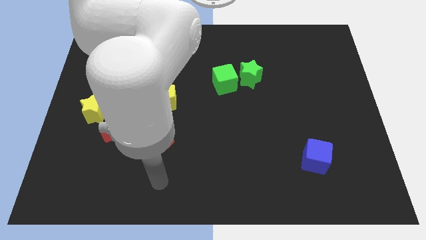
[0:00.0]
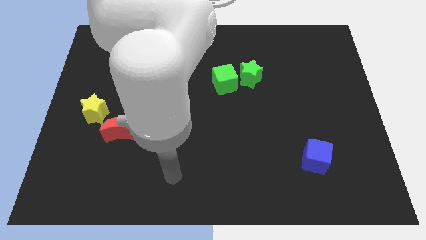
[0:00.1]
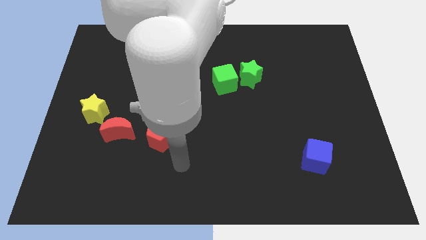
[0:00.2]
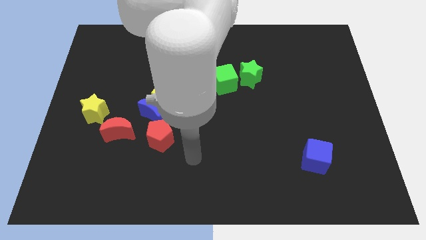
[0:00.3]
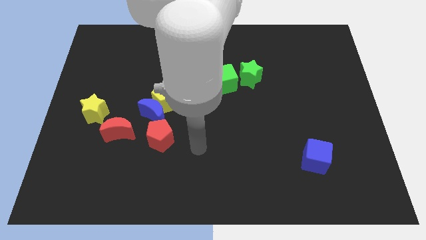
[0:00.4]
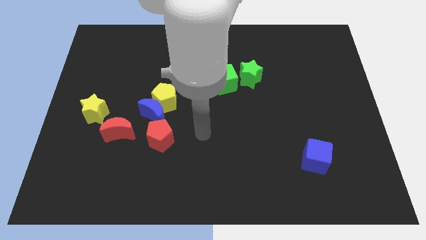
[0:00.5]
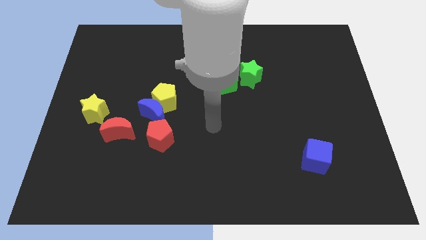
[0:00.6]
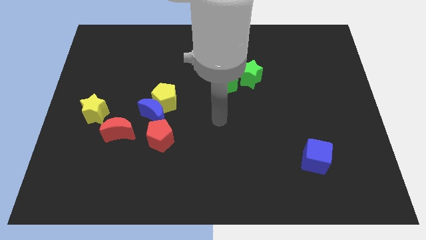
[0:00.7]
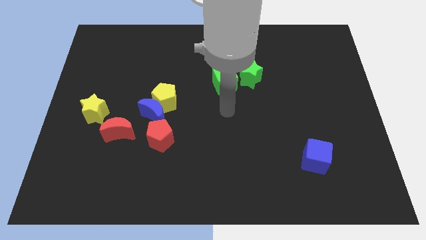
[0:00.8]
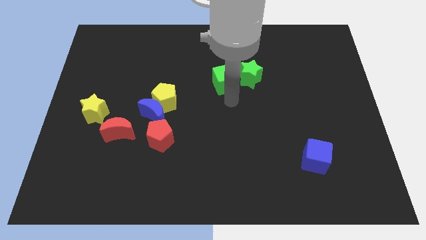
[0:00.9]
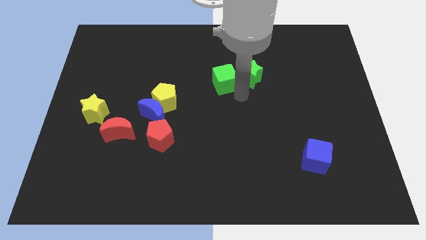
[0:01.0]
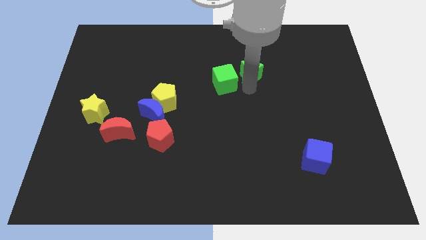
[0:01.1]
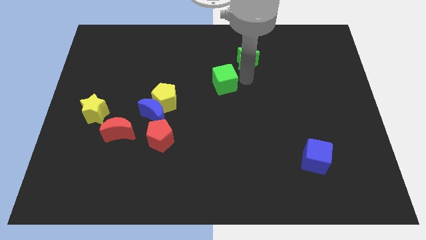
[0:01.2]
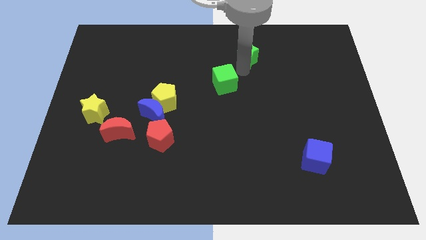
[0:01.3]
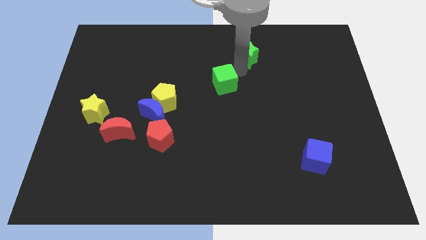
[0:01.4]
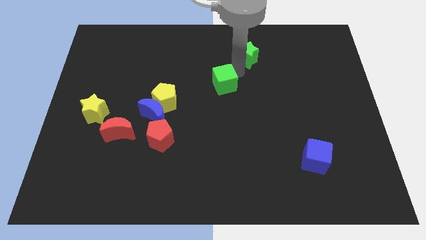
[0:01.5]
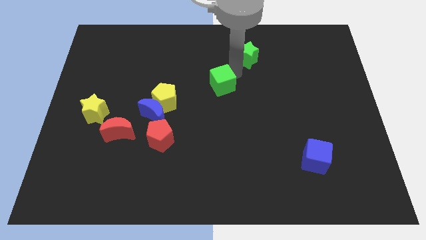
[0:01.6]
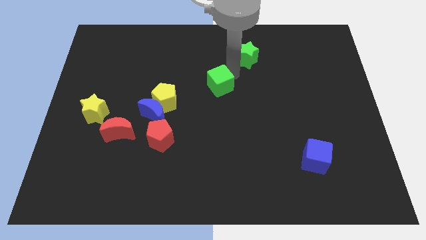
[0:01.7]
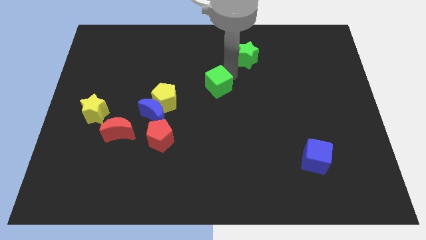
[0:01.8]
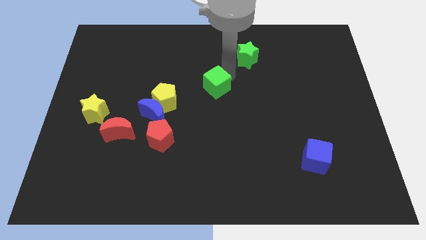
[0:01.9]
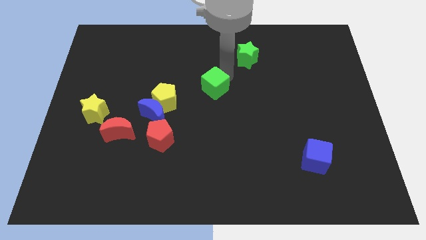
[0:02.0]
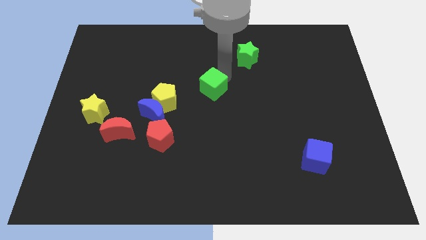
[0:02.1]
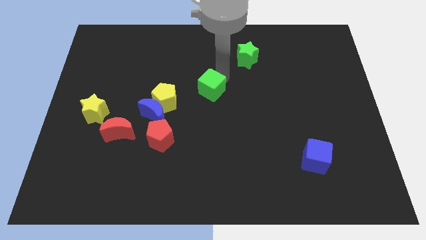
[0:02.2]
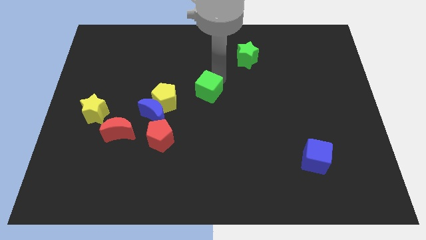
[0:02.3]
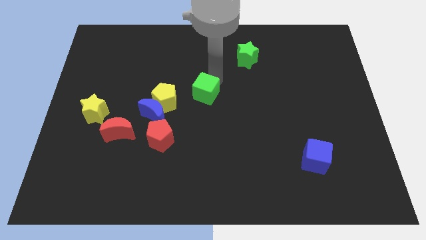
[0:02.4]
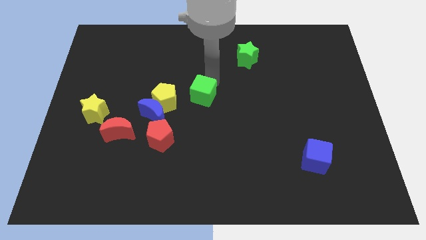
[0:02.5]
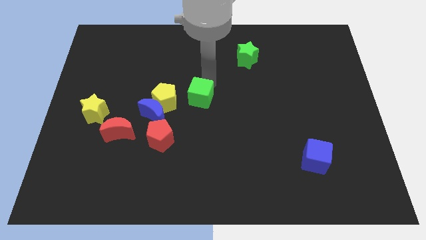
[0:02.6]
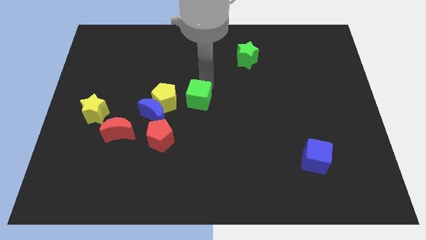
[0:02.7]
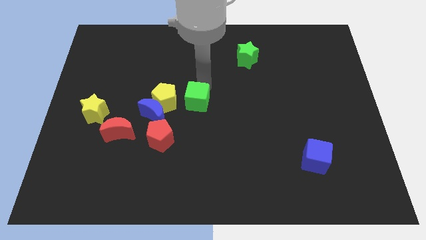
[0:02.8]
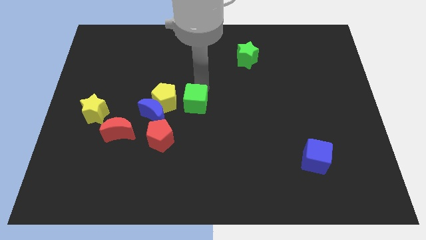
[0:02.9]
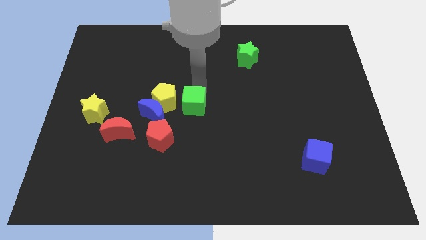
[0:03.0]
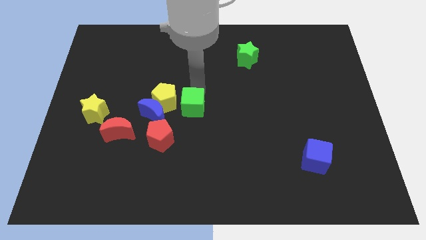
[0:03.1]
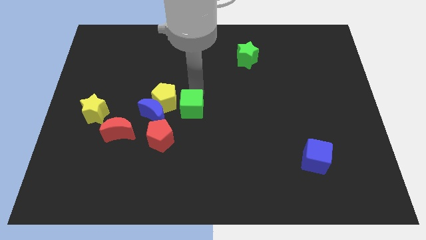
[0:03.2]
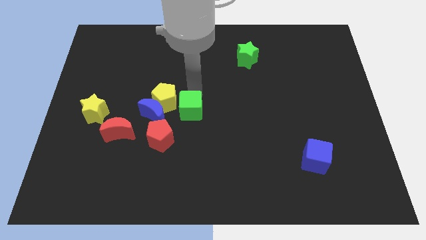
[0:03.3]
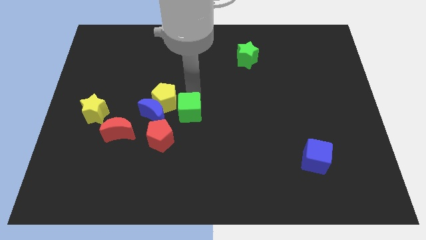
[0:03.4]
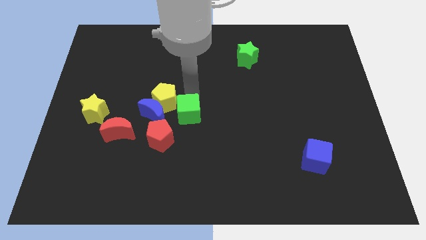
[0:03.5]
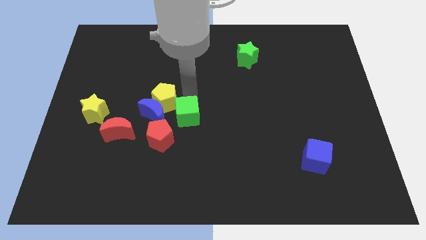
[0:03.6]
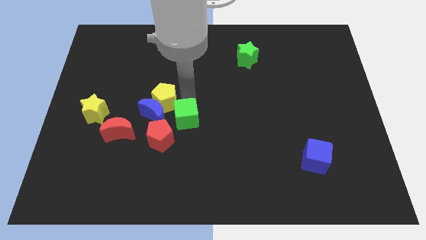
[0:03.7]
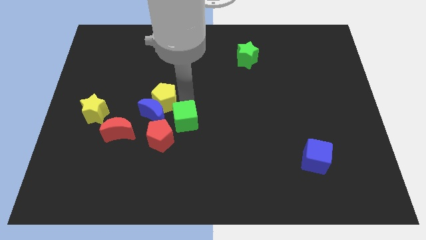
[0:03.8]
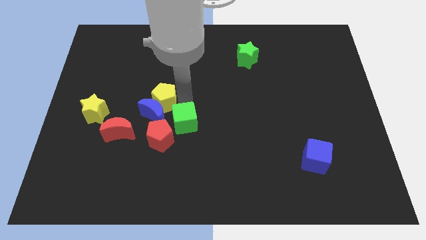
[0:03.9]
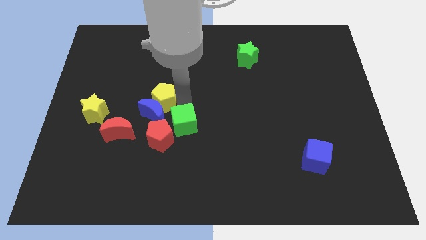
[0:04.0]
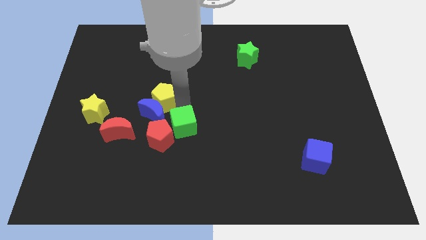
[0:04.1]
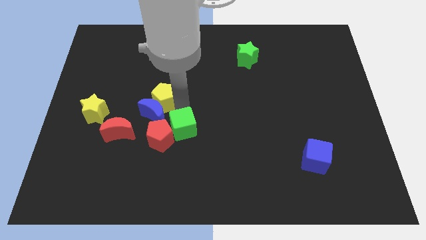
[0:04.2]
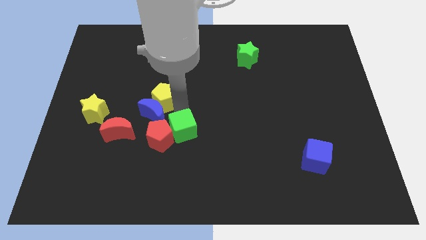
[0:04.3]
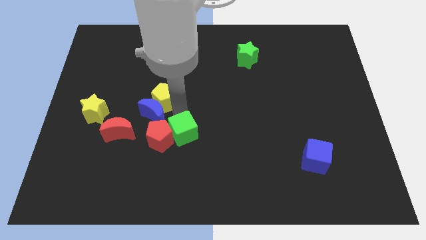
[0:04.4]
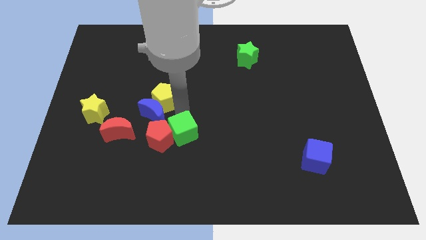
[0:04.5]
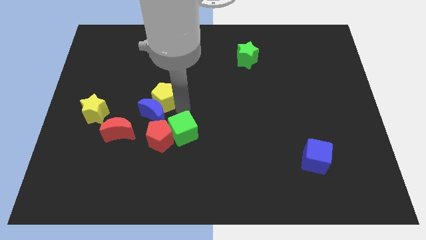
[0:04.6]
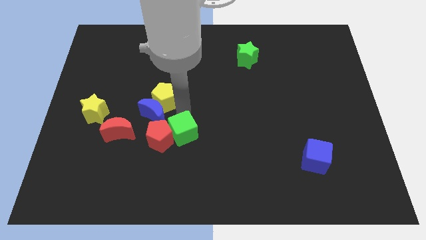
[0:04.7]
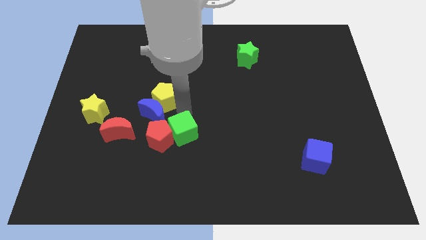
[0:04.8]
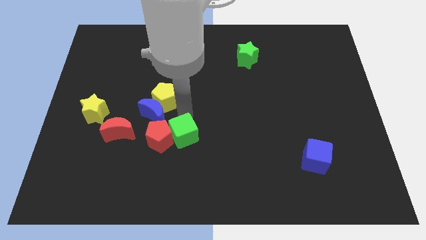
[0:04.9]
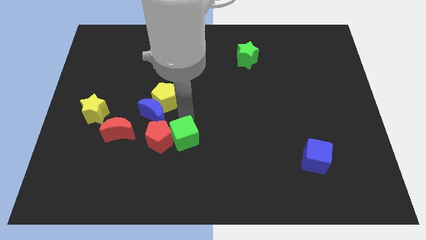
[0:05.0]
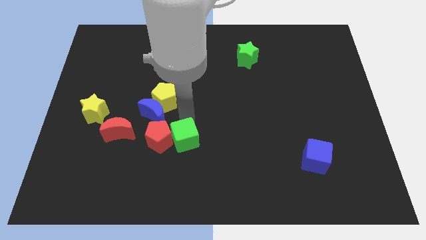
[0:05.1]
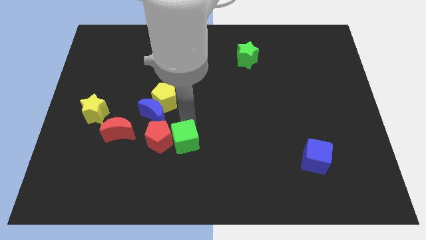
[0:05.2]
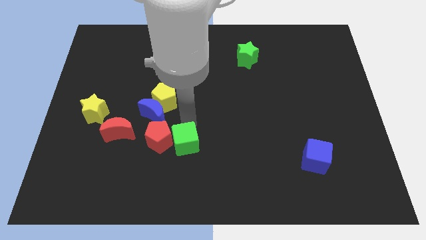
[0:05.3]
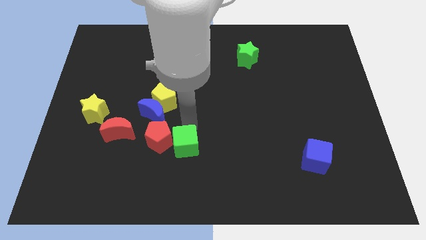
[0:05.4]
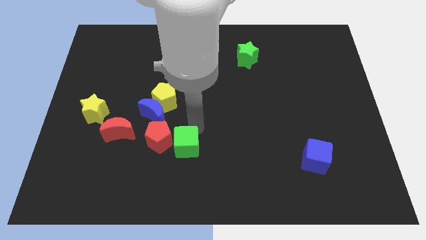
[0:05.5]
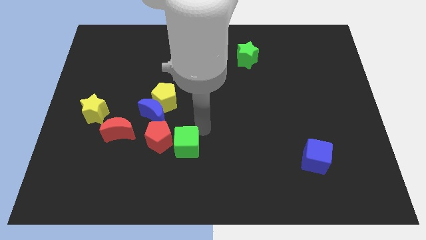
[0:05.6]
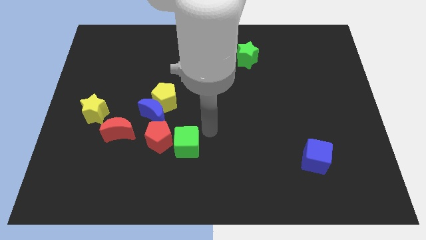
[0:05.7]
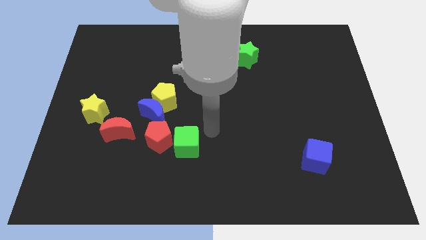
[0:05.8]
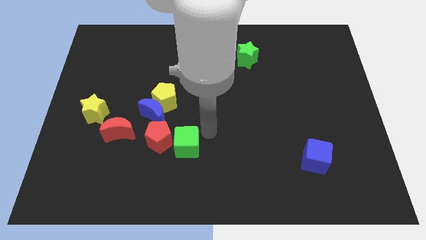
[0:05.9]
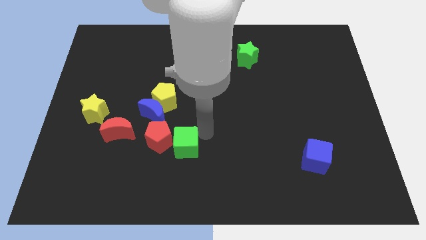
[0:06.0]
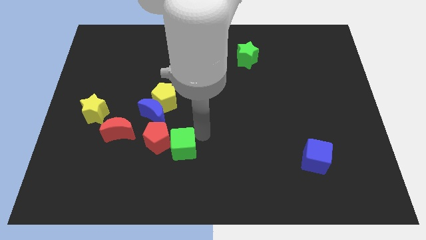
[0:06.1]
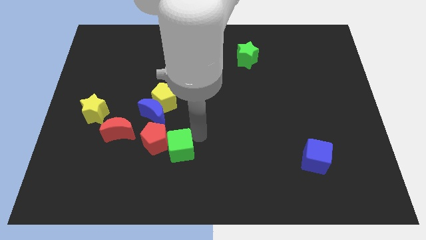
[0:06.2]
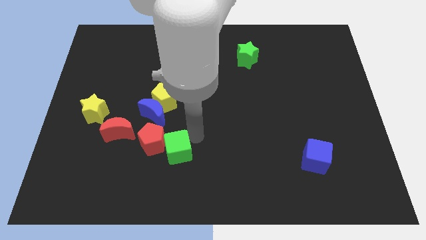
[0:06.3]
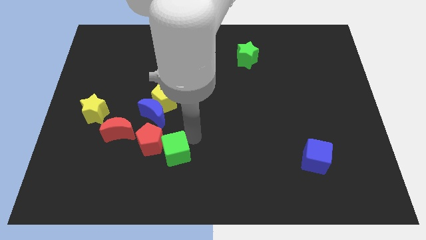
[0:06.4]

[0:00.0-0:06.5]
move the green cube downwards and then left

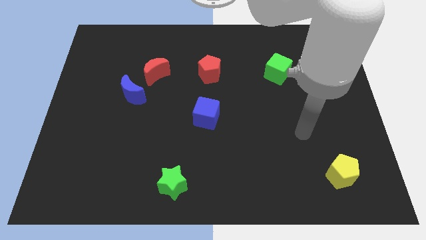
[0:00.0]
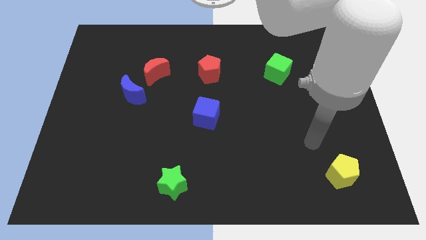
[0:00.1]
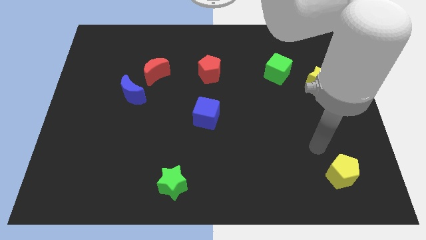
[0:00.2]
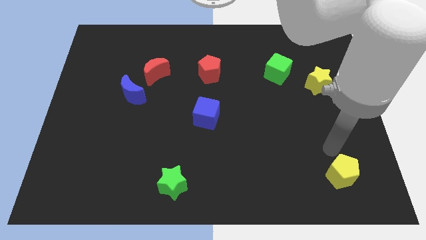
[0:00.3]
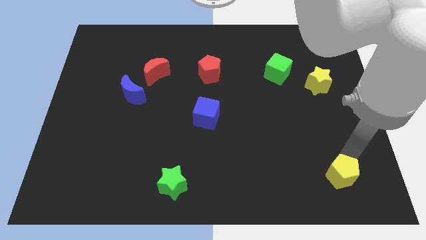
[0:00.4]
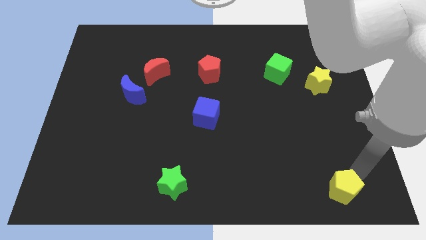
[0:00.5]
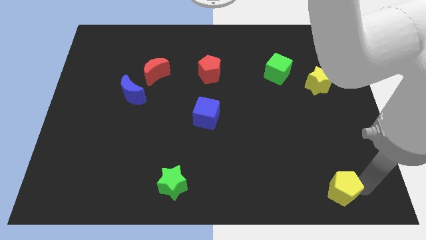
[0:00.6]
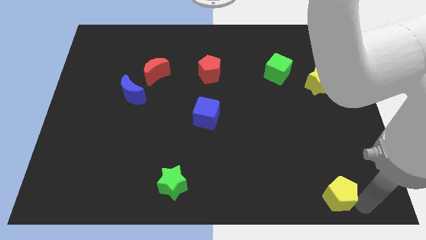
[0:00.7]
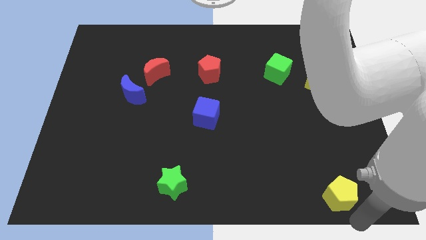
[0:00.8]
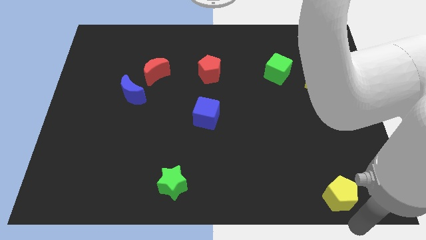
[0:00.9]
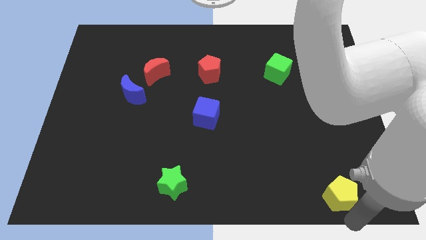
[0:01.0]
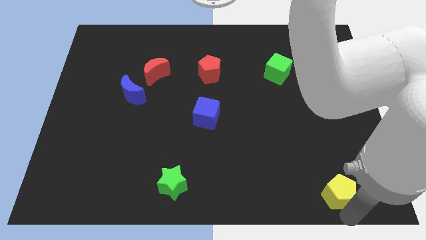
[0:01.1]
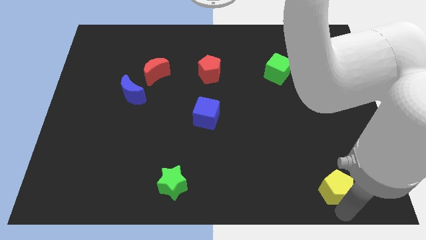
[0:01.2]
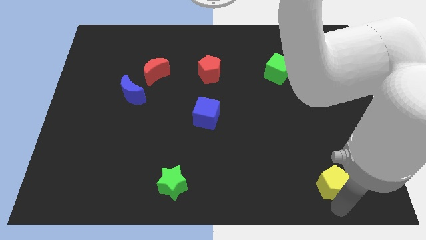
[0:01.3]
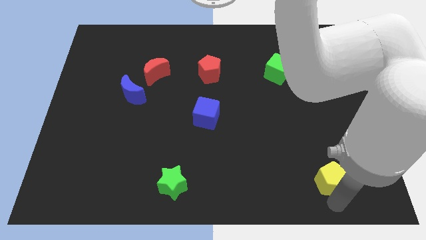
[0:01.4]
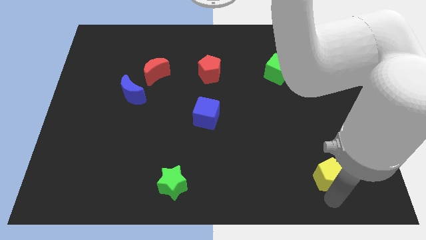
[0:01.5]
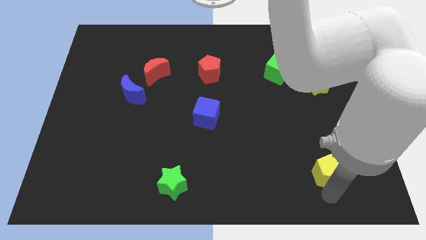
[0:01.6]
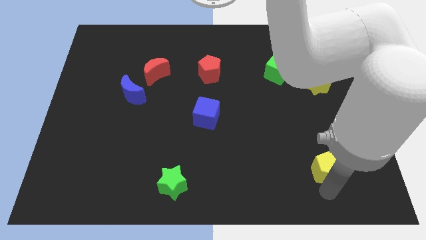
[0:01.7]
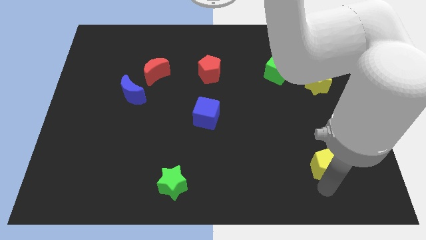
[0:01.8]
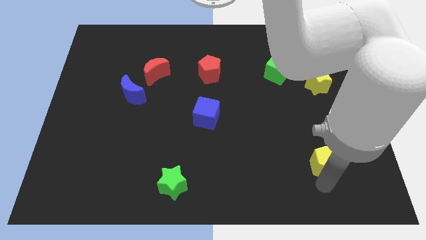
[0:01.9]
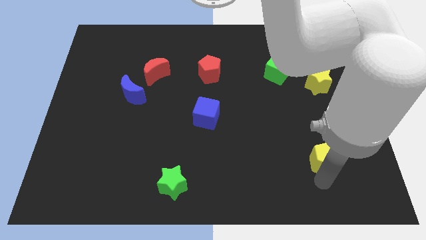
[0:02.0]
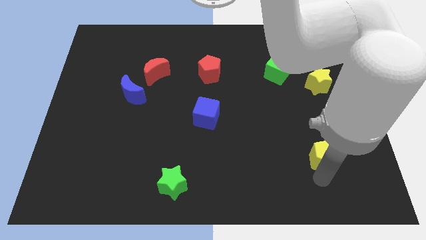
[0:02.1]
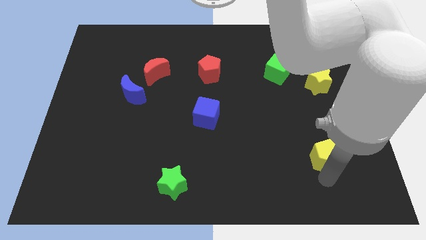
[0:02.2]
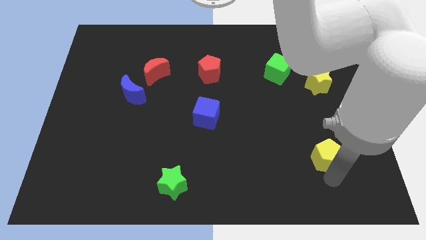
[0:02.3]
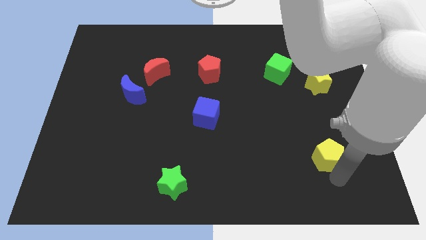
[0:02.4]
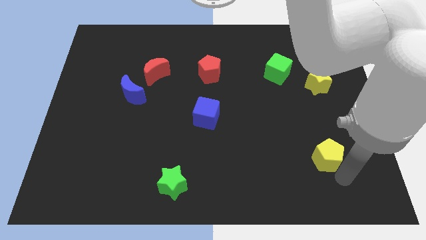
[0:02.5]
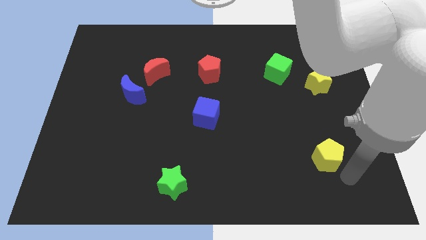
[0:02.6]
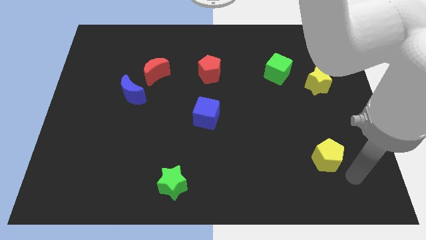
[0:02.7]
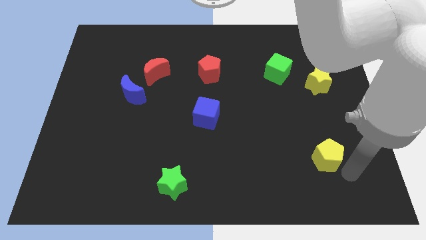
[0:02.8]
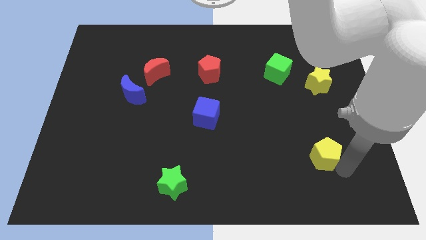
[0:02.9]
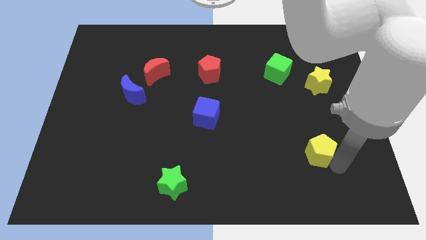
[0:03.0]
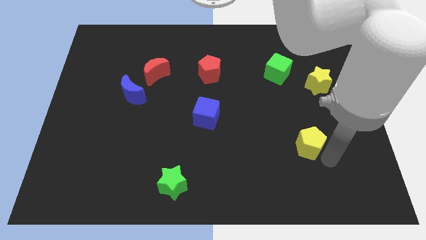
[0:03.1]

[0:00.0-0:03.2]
slightly slide the yellow pentagon up and to the left diagonally
